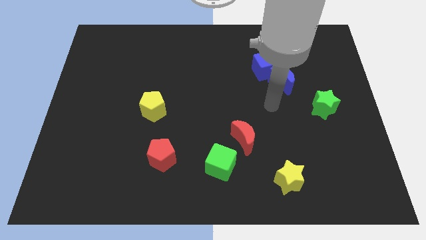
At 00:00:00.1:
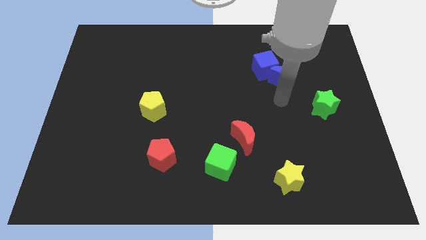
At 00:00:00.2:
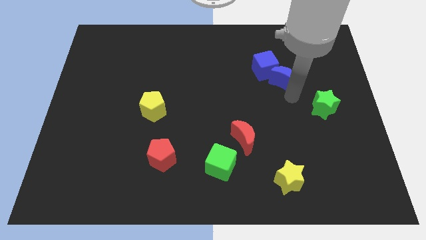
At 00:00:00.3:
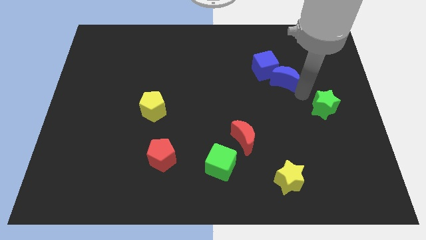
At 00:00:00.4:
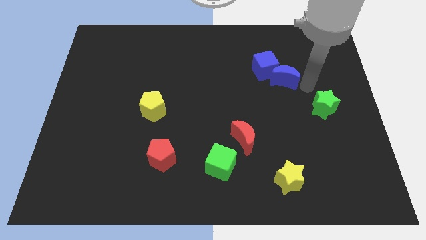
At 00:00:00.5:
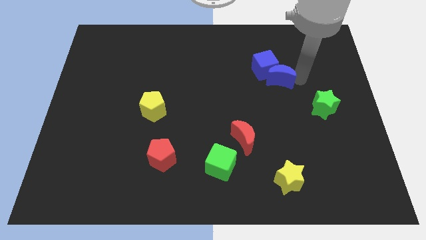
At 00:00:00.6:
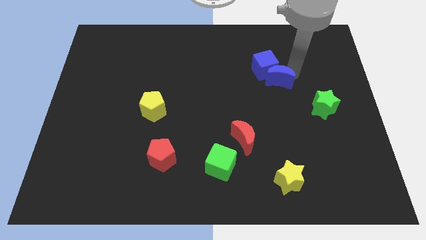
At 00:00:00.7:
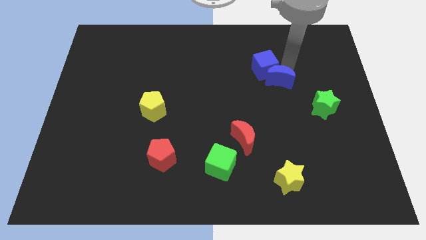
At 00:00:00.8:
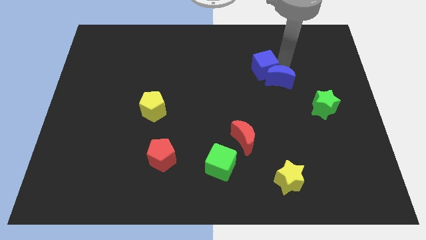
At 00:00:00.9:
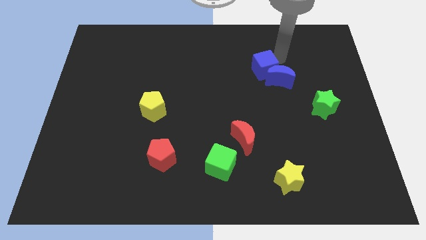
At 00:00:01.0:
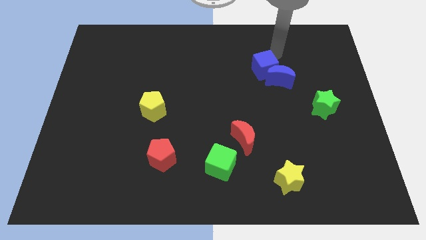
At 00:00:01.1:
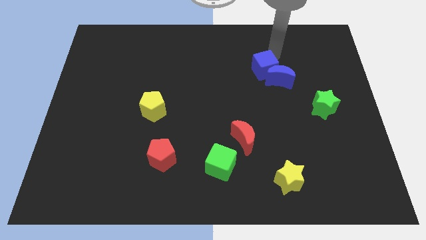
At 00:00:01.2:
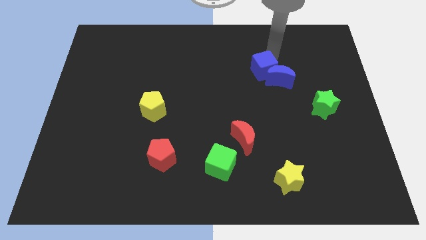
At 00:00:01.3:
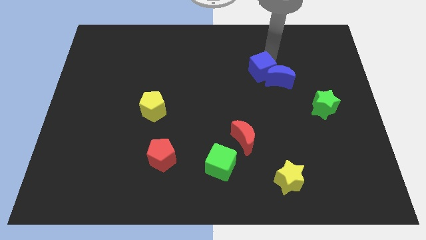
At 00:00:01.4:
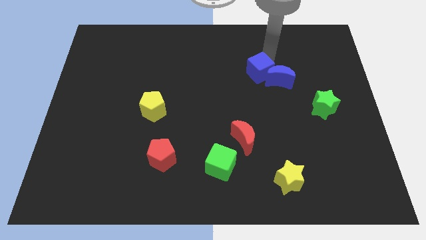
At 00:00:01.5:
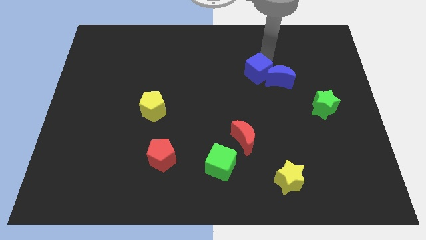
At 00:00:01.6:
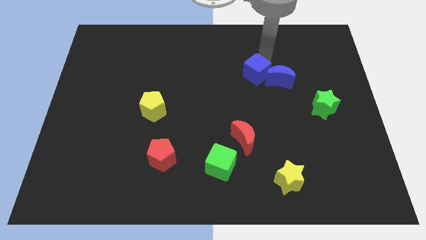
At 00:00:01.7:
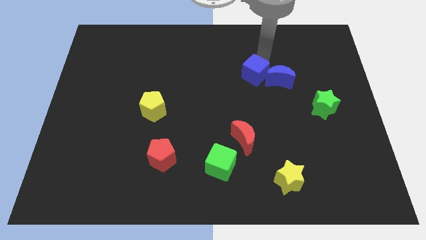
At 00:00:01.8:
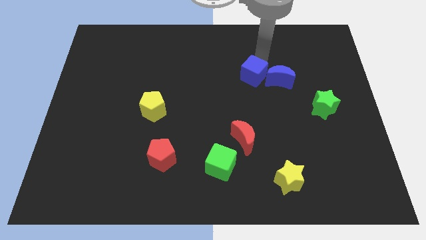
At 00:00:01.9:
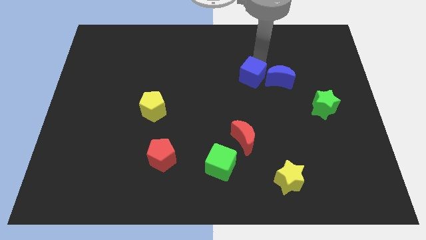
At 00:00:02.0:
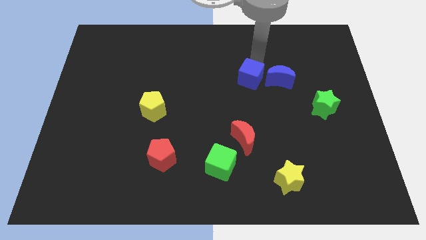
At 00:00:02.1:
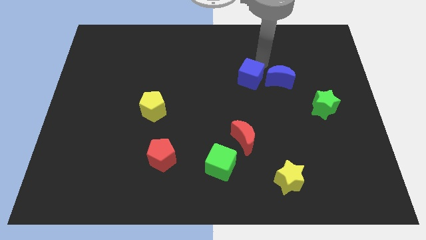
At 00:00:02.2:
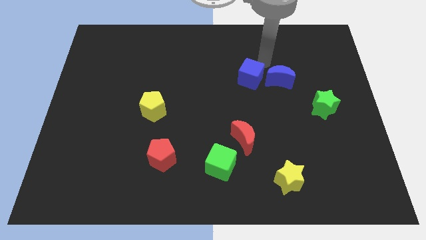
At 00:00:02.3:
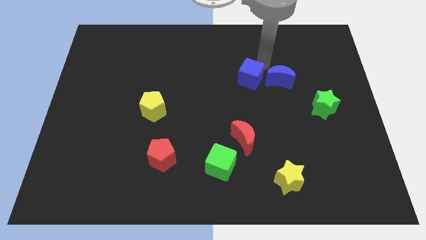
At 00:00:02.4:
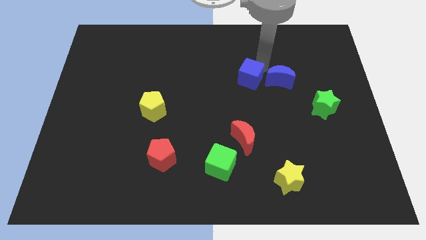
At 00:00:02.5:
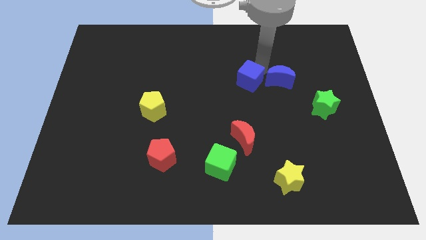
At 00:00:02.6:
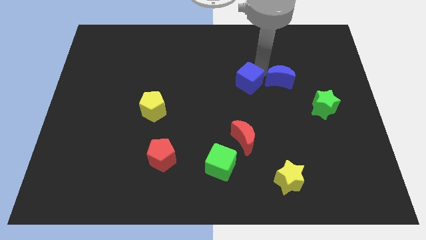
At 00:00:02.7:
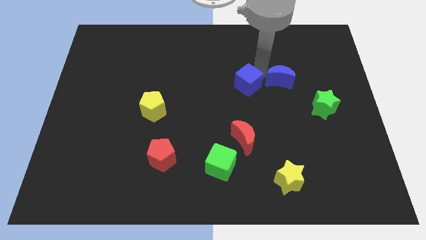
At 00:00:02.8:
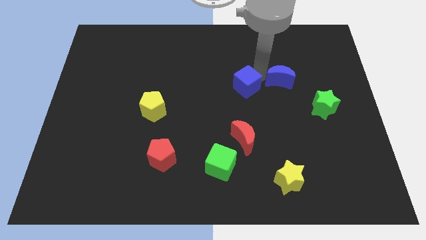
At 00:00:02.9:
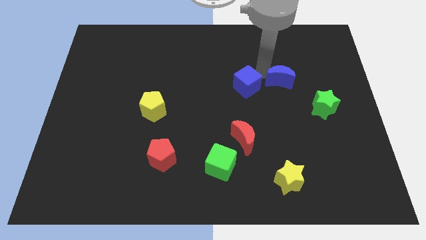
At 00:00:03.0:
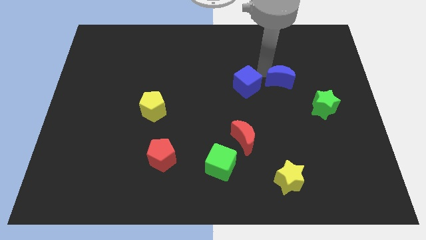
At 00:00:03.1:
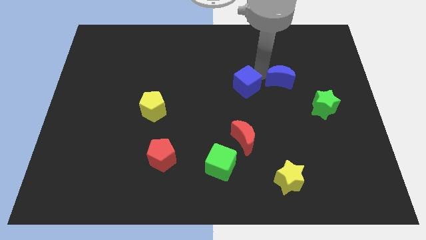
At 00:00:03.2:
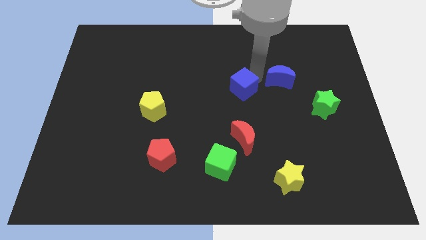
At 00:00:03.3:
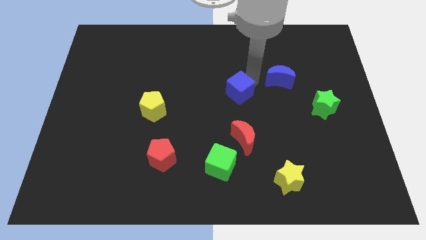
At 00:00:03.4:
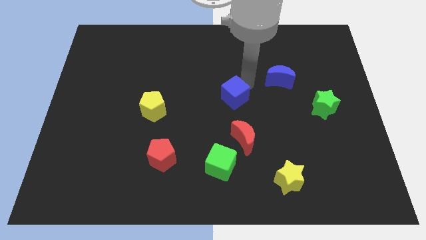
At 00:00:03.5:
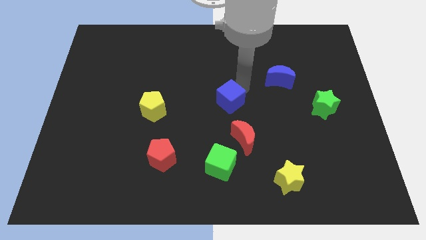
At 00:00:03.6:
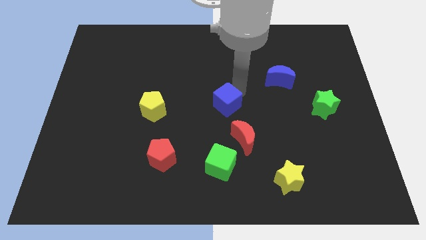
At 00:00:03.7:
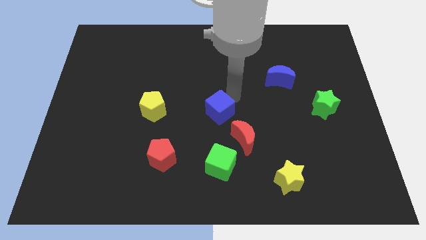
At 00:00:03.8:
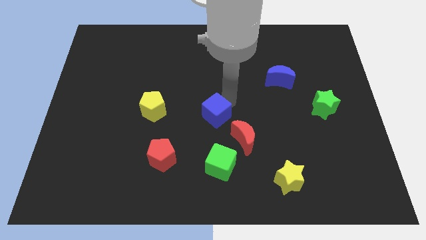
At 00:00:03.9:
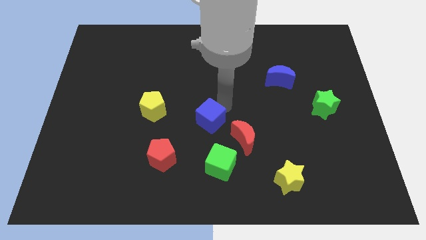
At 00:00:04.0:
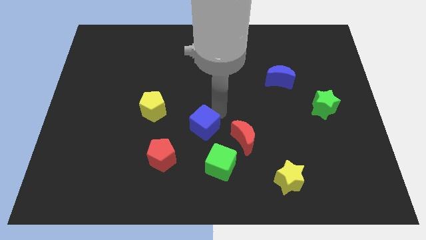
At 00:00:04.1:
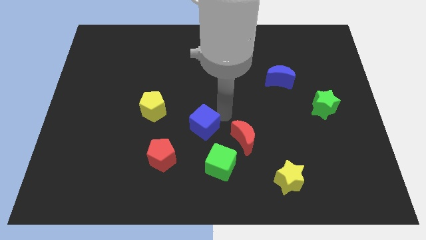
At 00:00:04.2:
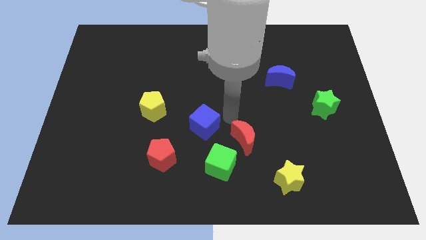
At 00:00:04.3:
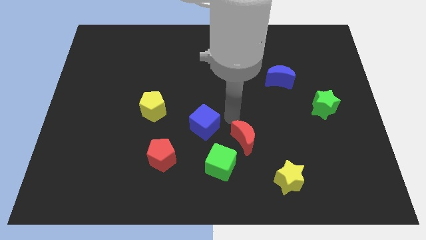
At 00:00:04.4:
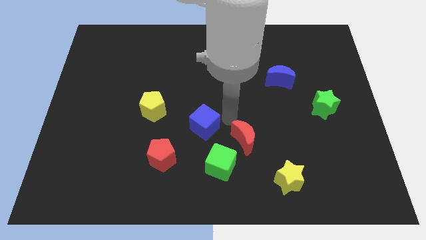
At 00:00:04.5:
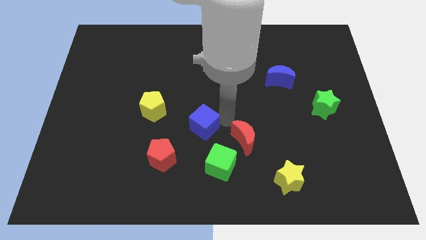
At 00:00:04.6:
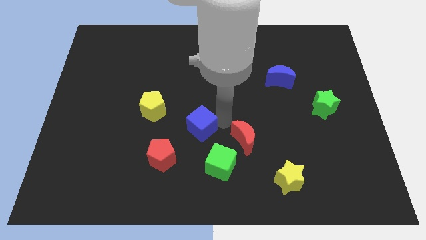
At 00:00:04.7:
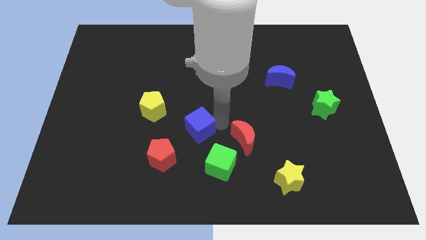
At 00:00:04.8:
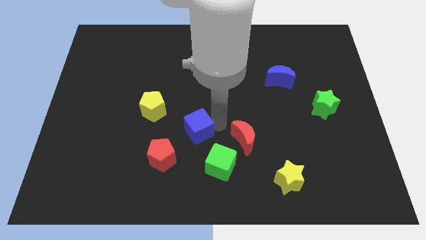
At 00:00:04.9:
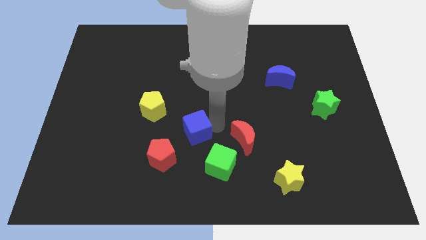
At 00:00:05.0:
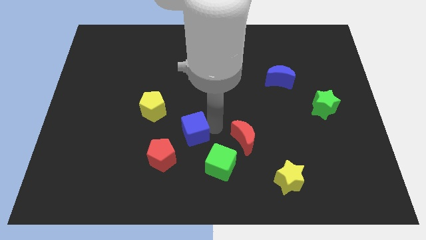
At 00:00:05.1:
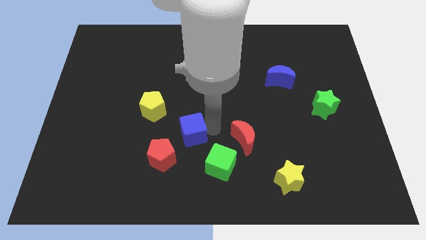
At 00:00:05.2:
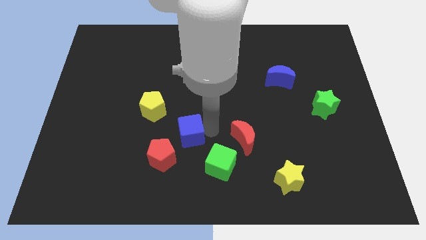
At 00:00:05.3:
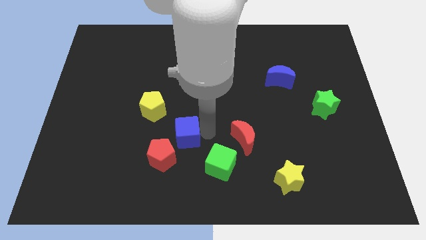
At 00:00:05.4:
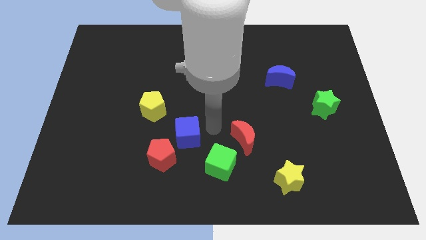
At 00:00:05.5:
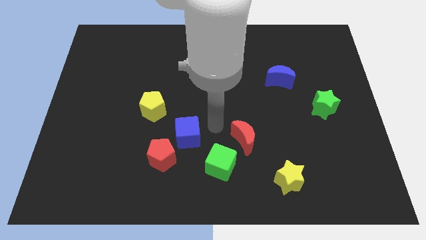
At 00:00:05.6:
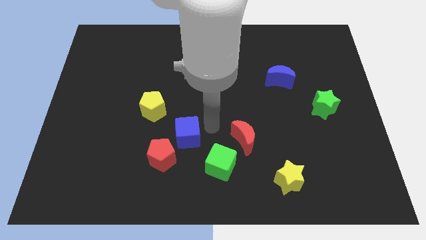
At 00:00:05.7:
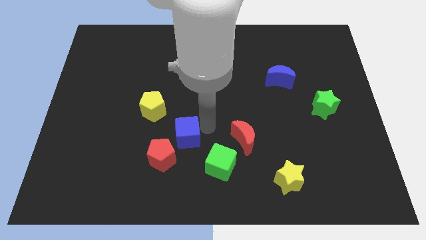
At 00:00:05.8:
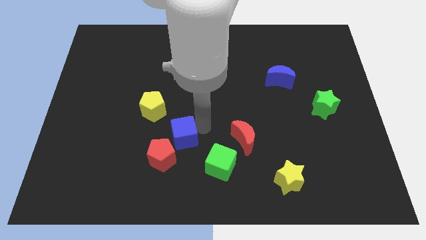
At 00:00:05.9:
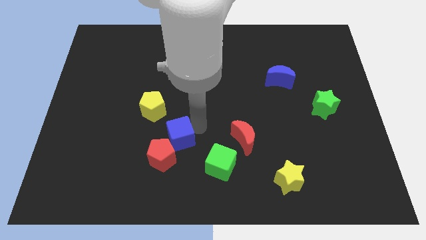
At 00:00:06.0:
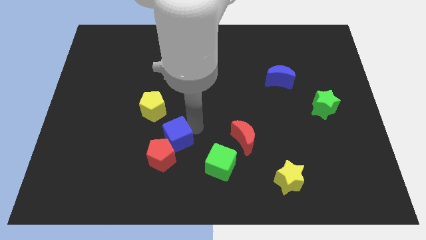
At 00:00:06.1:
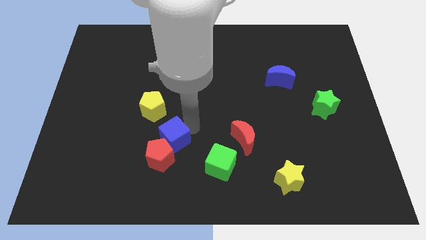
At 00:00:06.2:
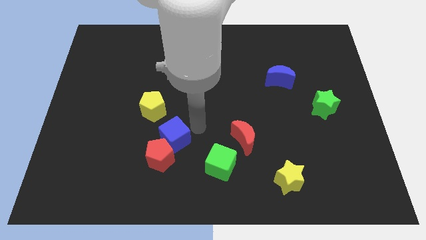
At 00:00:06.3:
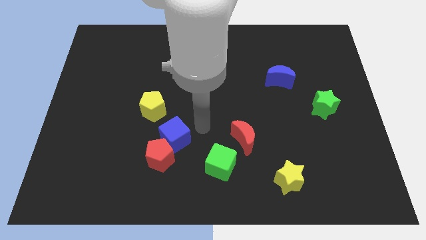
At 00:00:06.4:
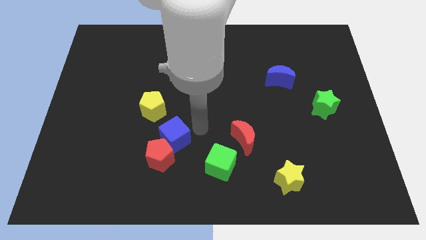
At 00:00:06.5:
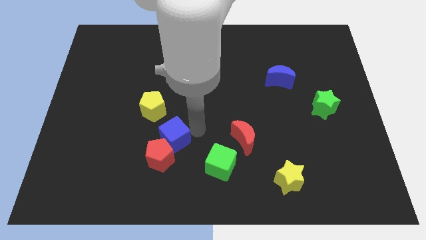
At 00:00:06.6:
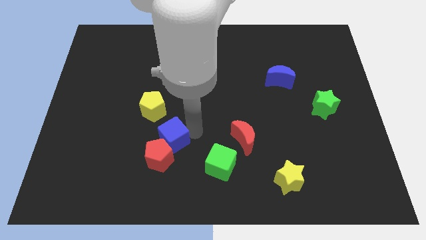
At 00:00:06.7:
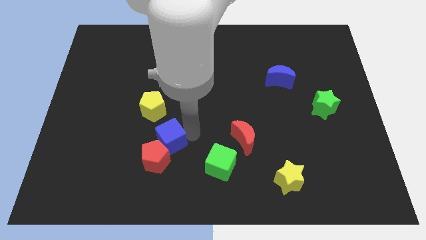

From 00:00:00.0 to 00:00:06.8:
push the blue cube below the yellow pentagon
